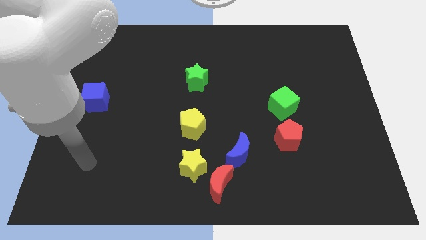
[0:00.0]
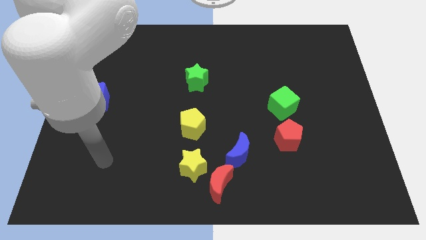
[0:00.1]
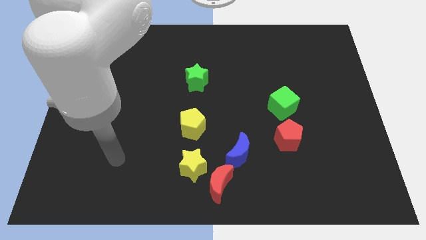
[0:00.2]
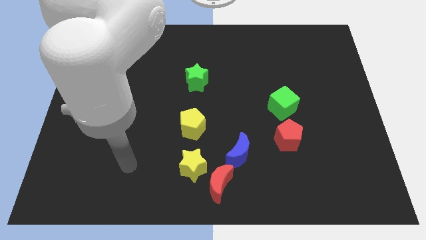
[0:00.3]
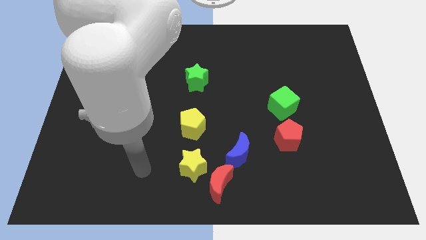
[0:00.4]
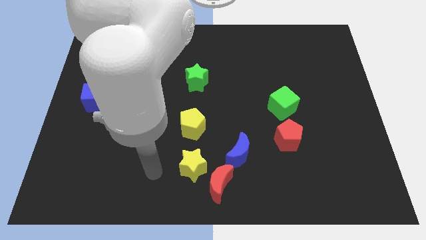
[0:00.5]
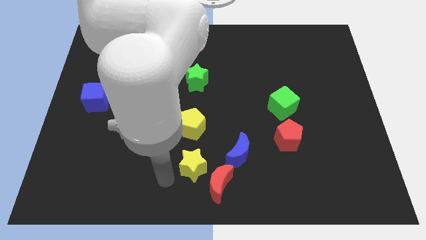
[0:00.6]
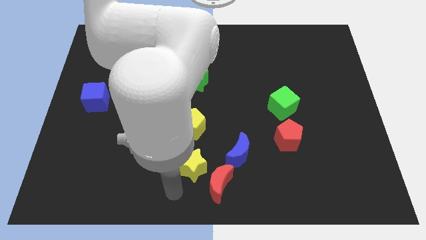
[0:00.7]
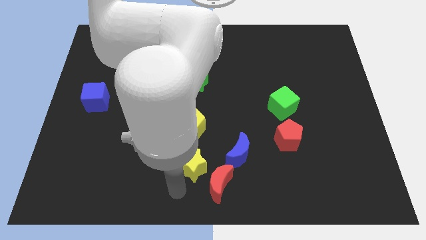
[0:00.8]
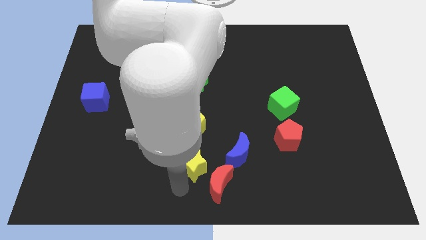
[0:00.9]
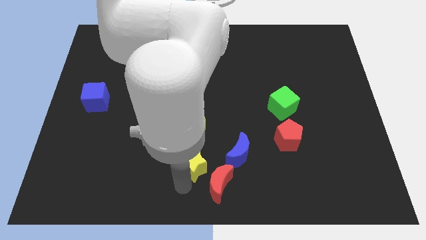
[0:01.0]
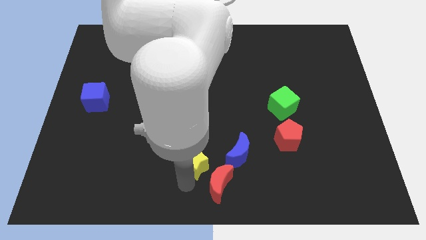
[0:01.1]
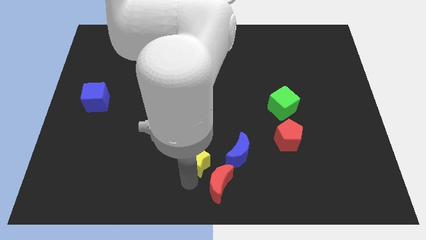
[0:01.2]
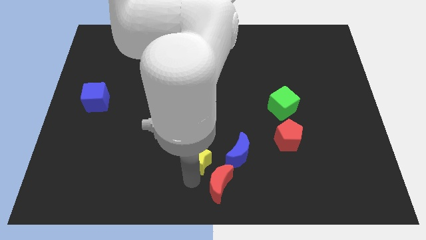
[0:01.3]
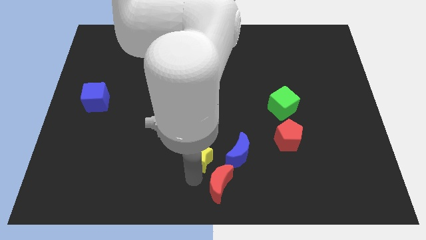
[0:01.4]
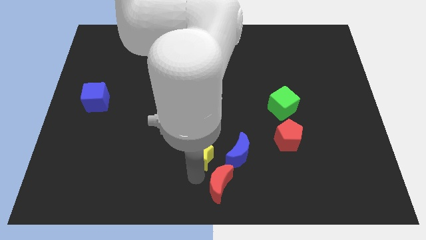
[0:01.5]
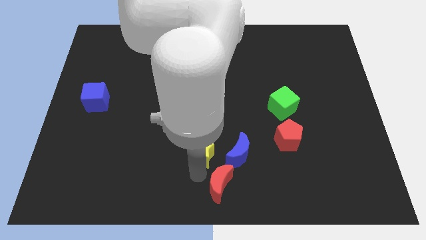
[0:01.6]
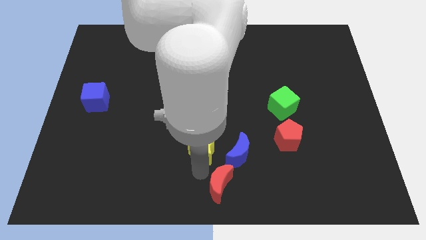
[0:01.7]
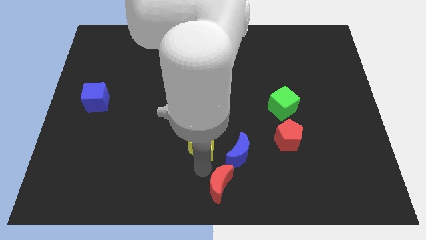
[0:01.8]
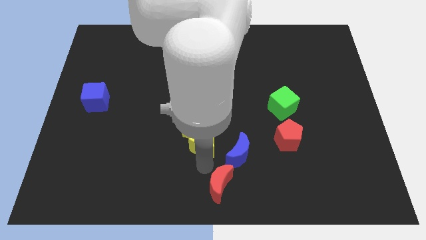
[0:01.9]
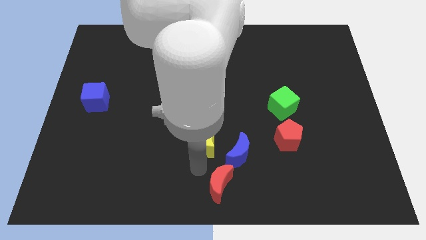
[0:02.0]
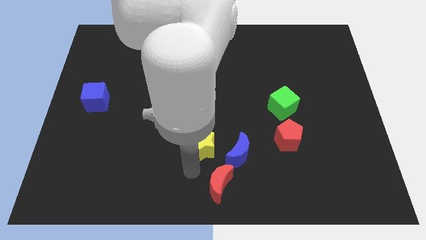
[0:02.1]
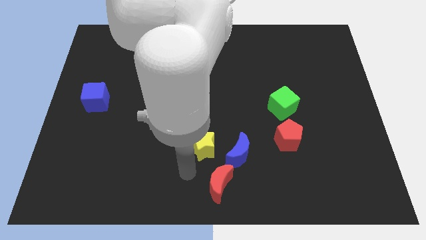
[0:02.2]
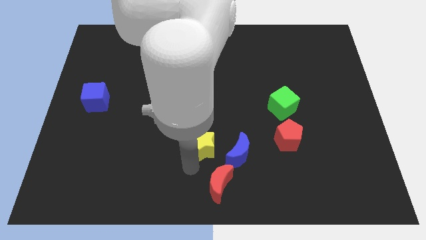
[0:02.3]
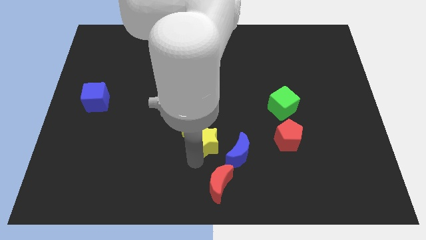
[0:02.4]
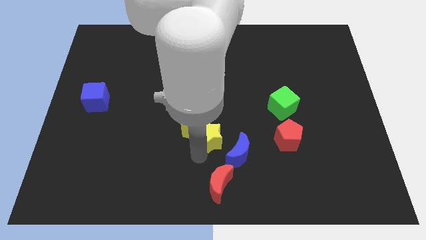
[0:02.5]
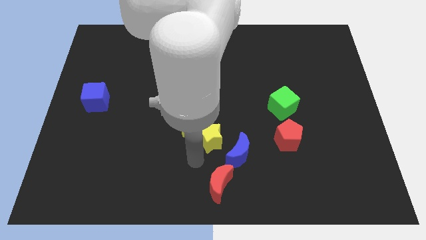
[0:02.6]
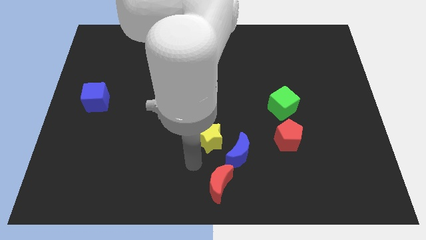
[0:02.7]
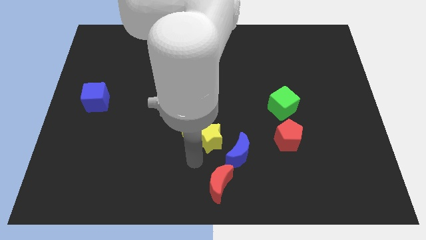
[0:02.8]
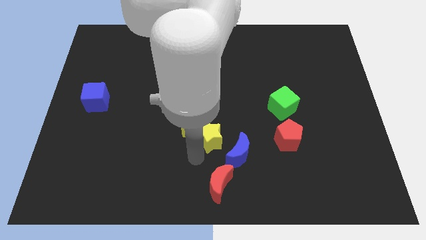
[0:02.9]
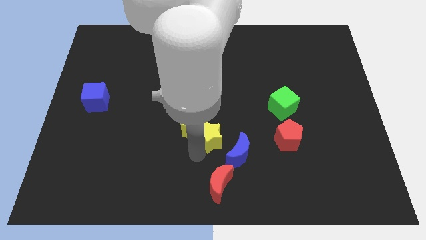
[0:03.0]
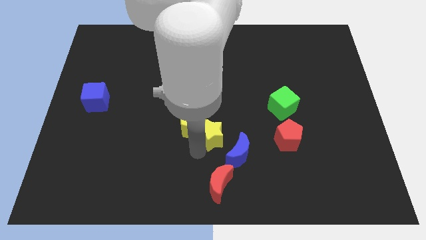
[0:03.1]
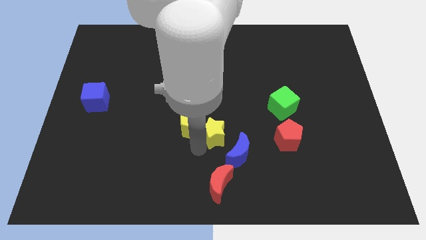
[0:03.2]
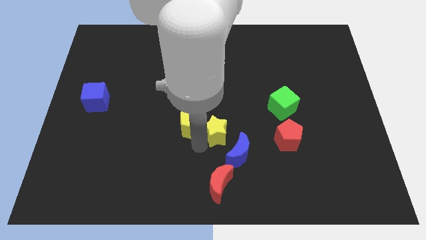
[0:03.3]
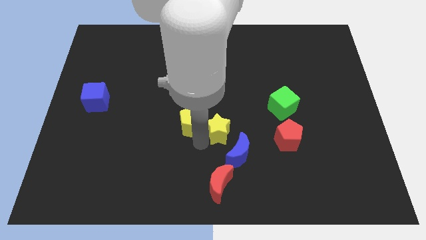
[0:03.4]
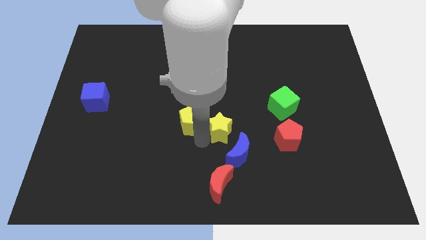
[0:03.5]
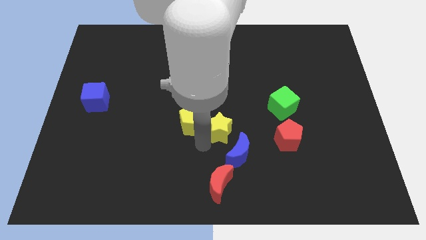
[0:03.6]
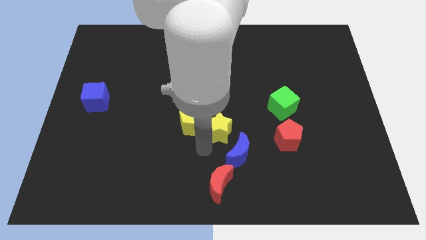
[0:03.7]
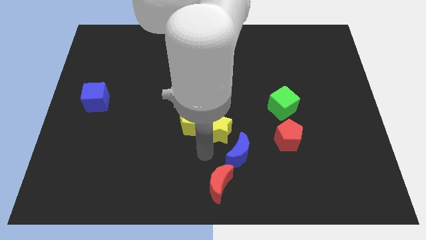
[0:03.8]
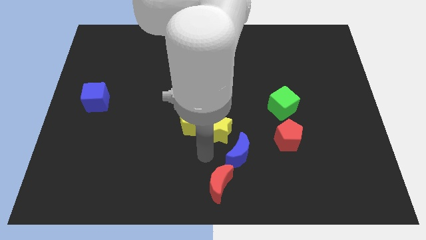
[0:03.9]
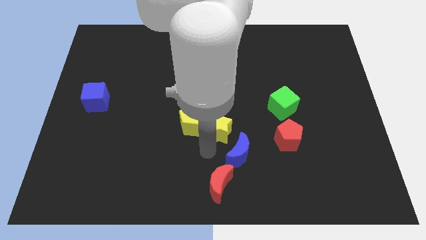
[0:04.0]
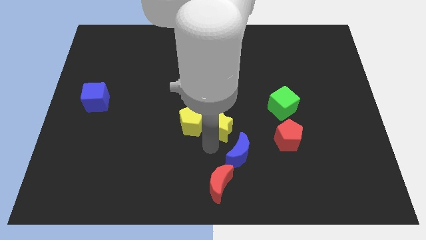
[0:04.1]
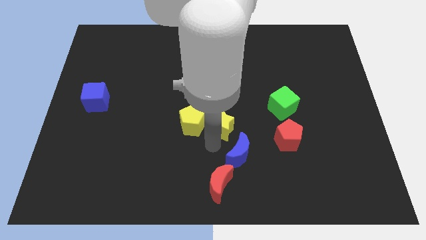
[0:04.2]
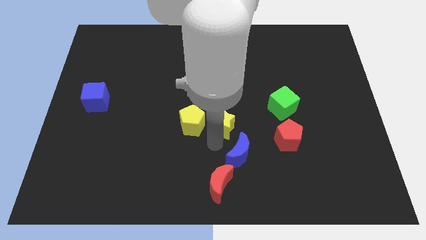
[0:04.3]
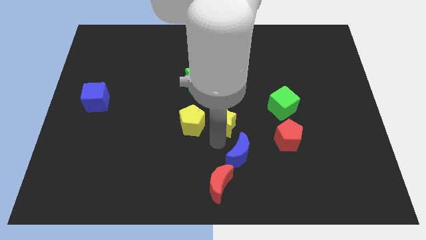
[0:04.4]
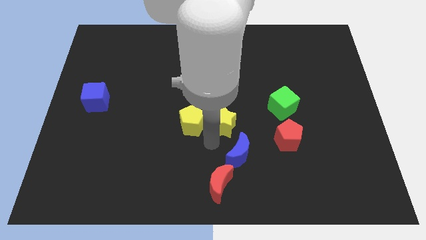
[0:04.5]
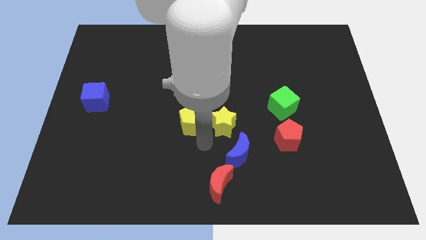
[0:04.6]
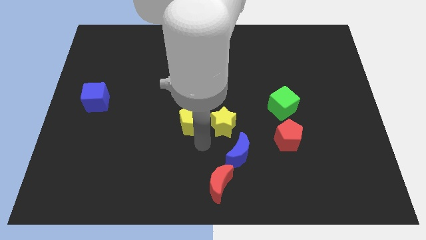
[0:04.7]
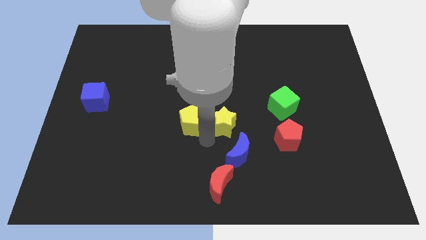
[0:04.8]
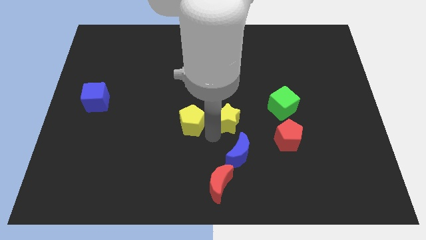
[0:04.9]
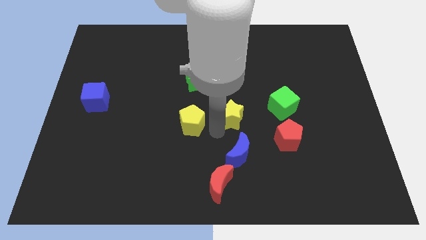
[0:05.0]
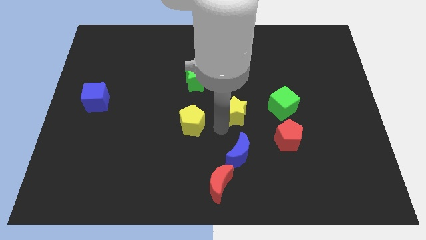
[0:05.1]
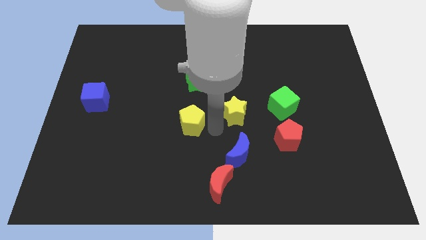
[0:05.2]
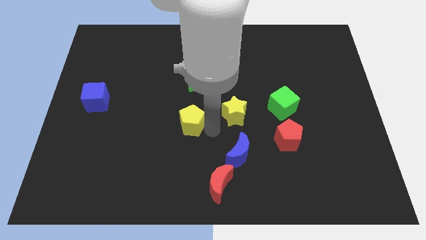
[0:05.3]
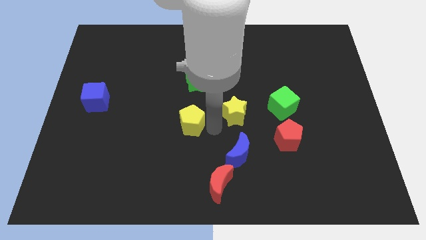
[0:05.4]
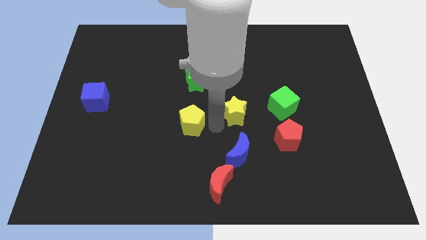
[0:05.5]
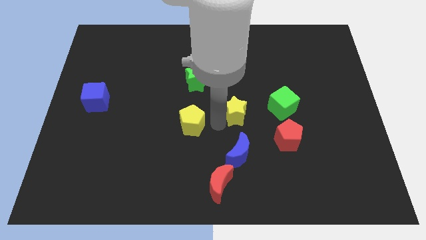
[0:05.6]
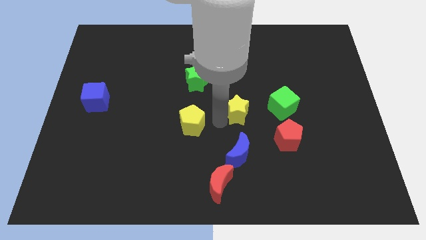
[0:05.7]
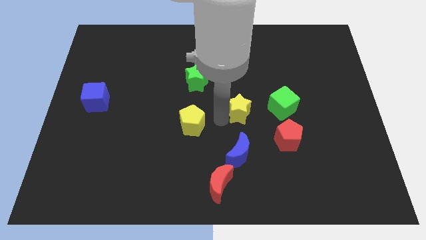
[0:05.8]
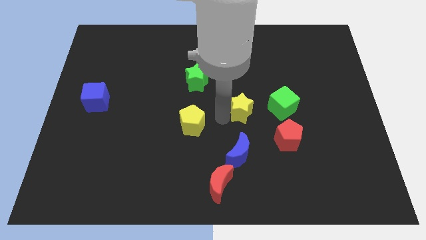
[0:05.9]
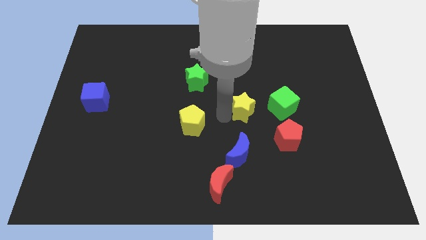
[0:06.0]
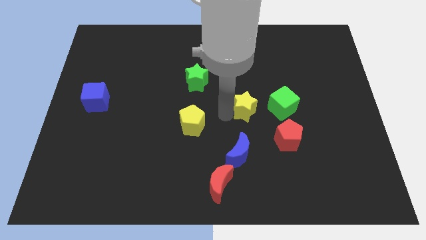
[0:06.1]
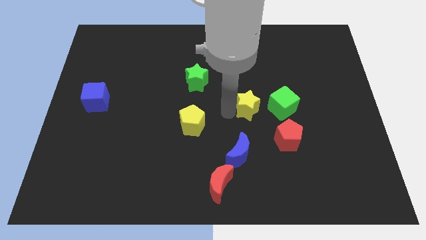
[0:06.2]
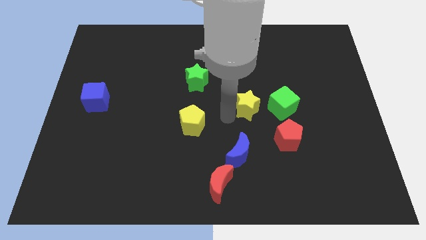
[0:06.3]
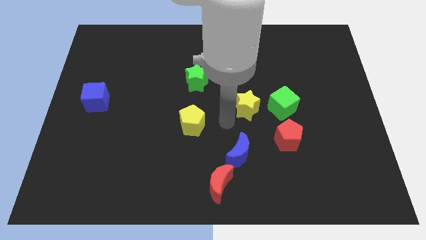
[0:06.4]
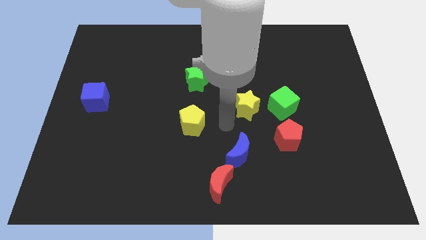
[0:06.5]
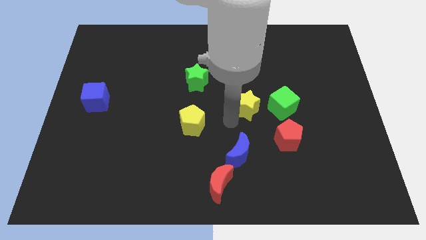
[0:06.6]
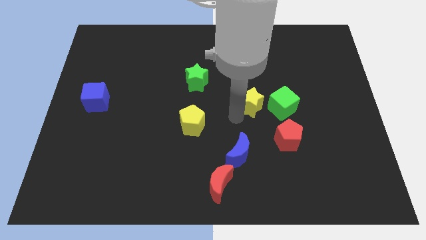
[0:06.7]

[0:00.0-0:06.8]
move the yellow star upwards and then right

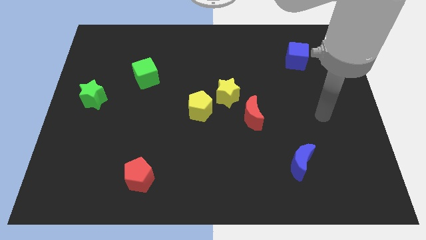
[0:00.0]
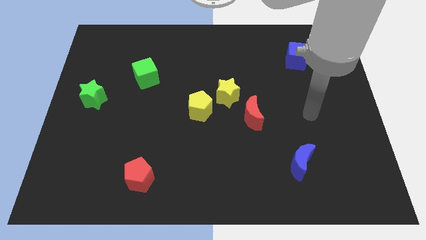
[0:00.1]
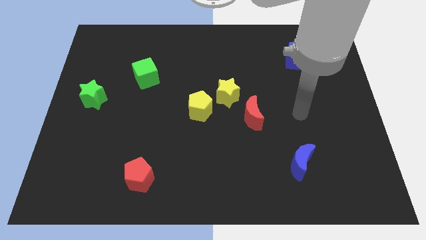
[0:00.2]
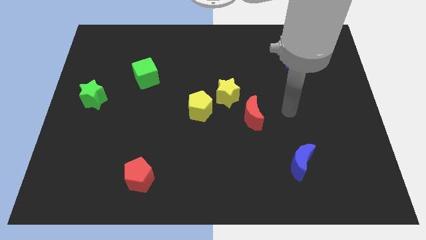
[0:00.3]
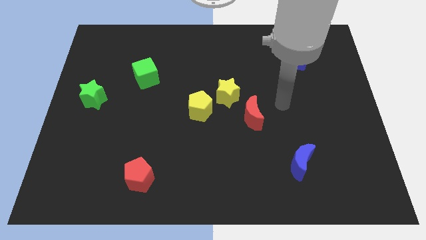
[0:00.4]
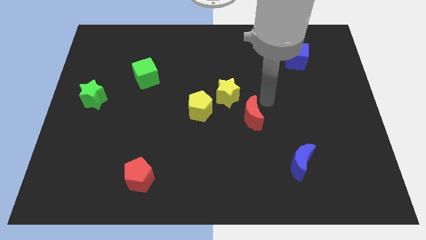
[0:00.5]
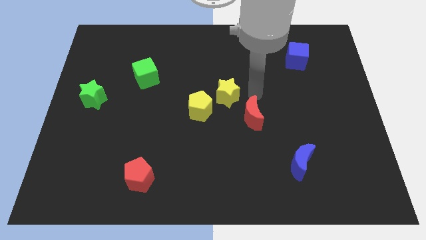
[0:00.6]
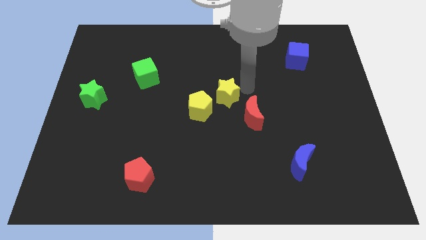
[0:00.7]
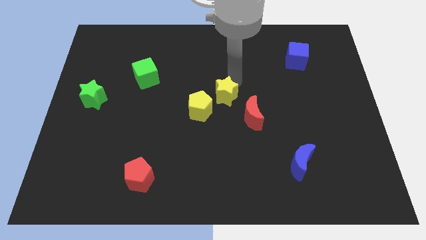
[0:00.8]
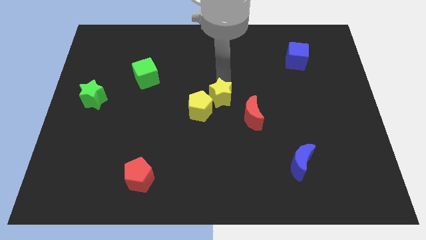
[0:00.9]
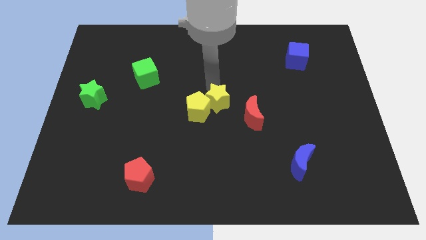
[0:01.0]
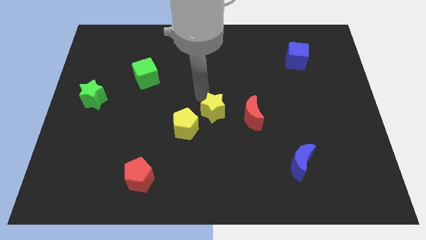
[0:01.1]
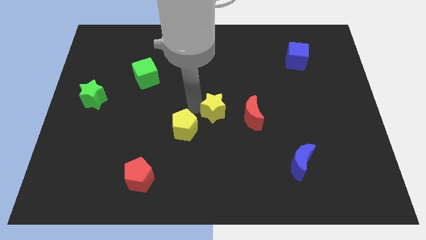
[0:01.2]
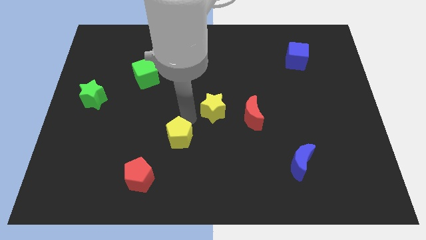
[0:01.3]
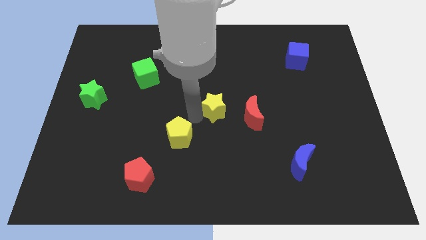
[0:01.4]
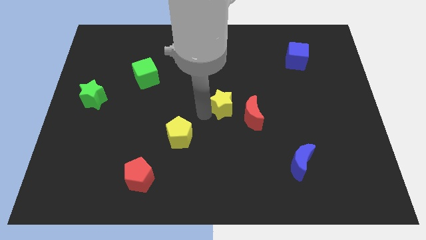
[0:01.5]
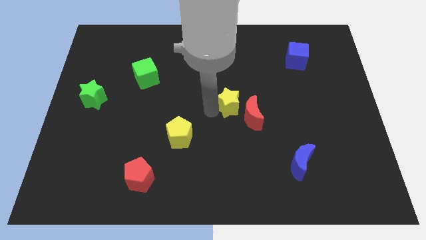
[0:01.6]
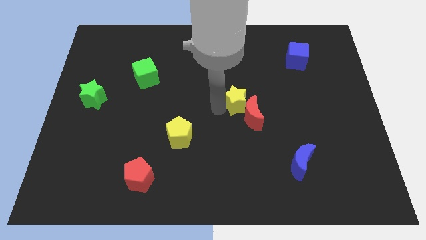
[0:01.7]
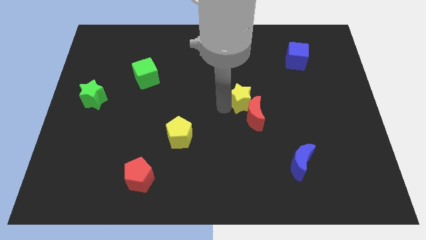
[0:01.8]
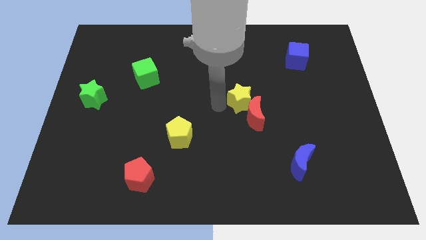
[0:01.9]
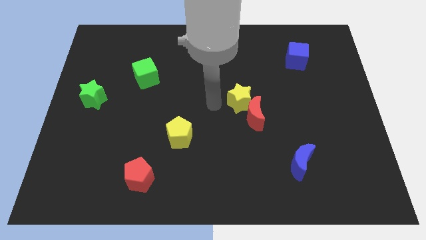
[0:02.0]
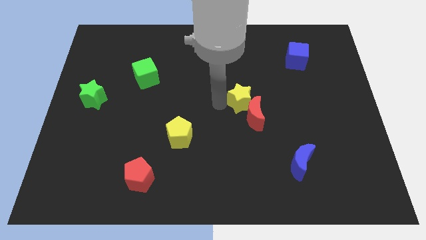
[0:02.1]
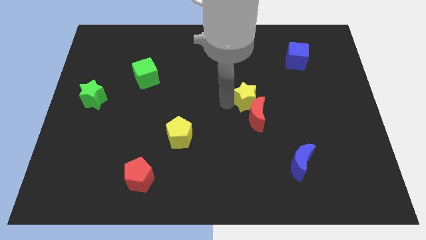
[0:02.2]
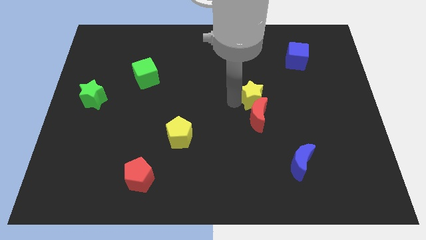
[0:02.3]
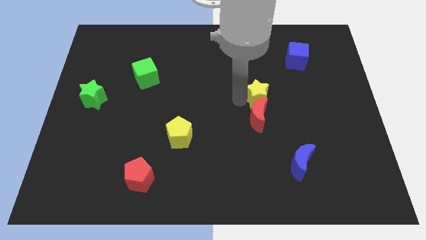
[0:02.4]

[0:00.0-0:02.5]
slide the yellow star slightly to the right
